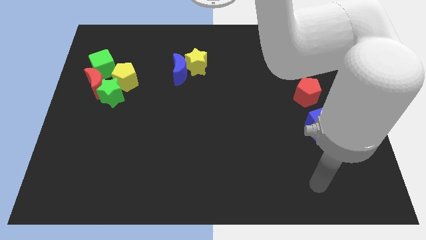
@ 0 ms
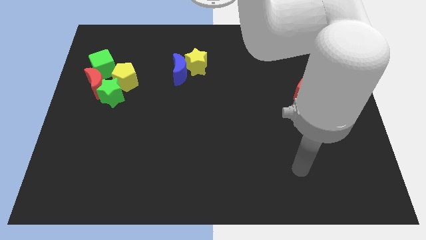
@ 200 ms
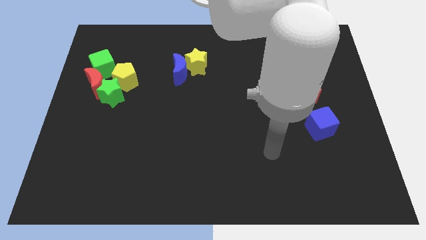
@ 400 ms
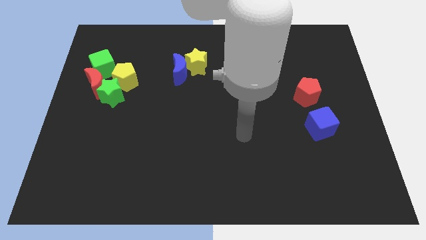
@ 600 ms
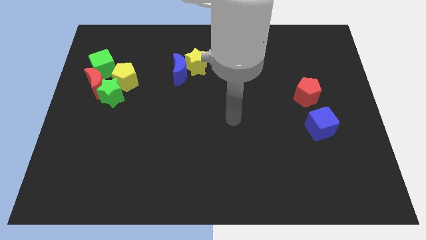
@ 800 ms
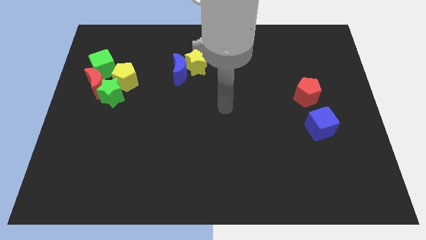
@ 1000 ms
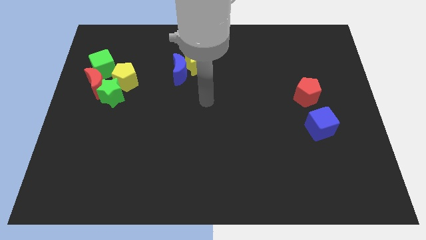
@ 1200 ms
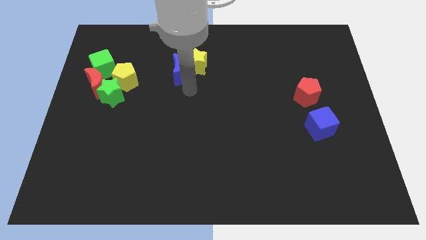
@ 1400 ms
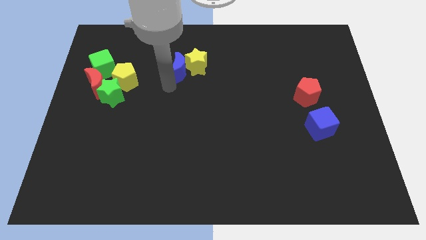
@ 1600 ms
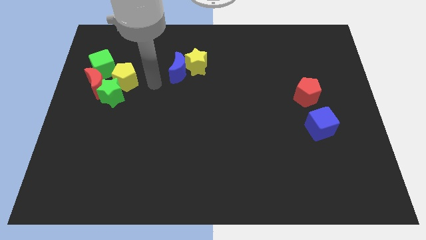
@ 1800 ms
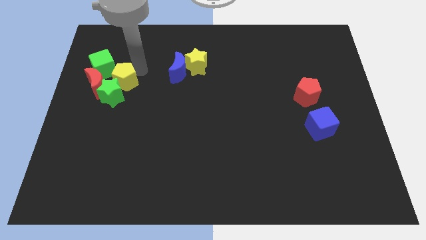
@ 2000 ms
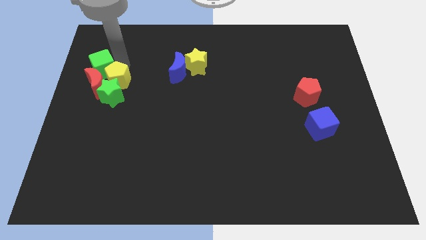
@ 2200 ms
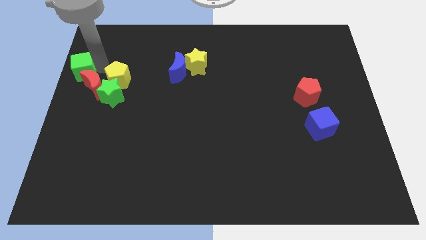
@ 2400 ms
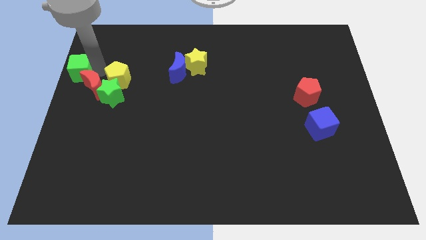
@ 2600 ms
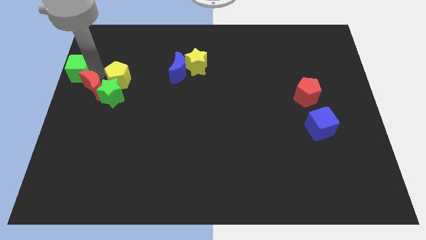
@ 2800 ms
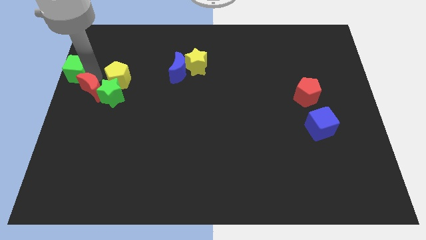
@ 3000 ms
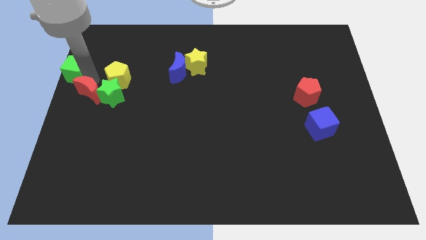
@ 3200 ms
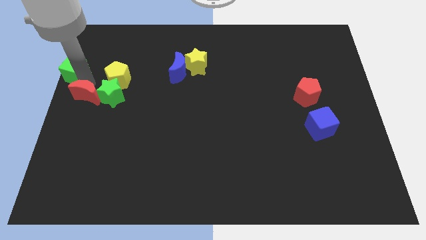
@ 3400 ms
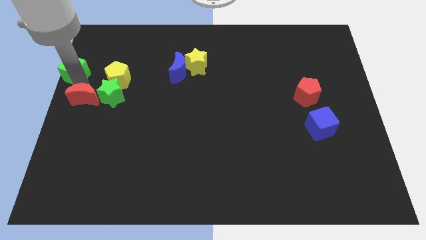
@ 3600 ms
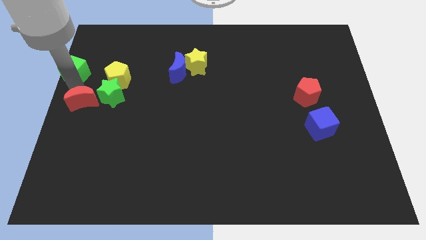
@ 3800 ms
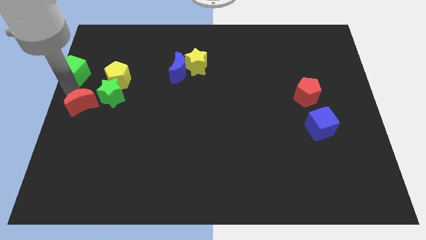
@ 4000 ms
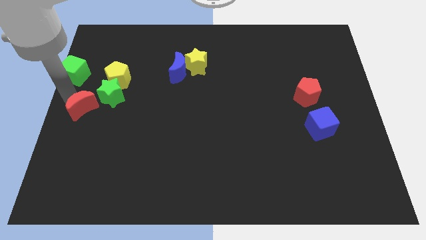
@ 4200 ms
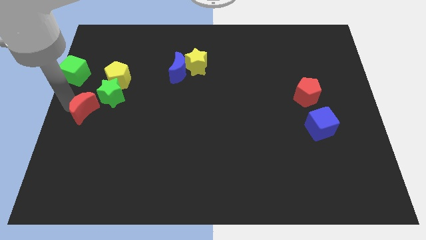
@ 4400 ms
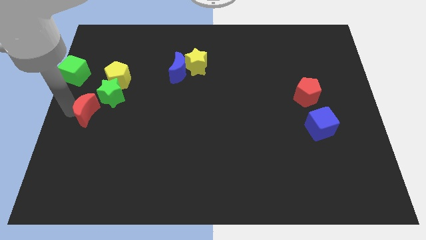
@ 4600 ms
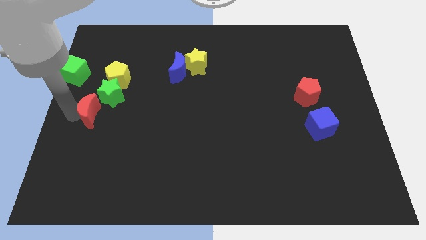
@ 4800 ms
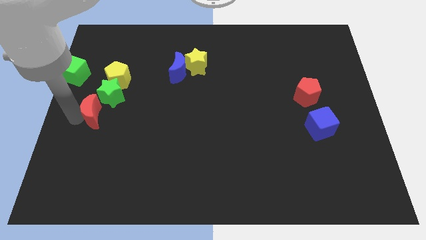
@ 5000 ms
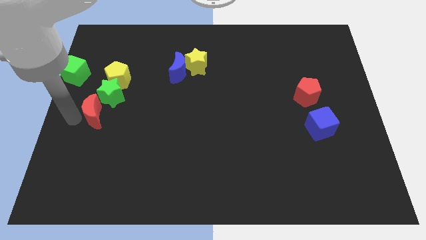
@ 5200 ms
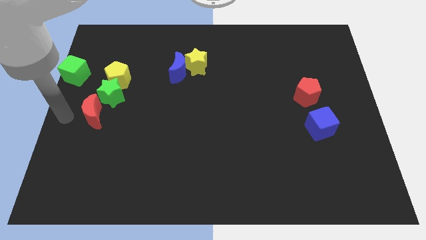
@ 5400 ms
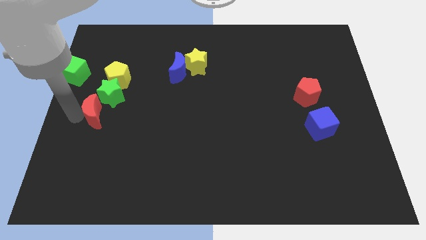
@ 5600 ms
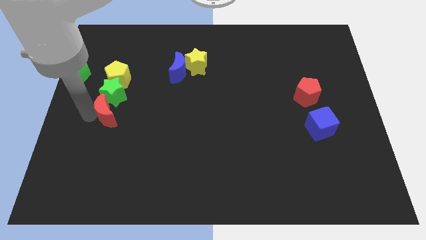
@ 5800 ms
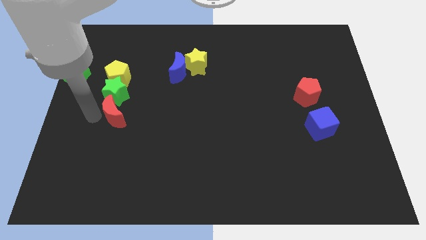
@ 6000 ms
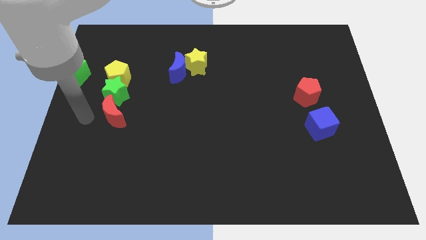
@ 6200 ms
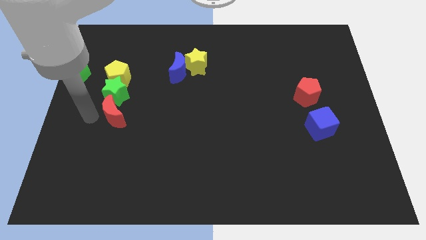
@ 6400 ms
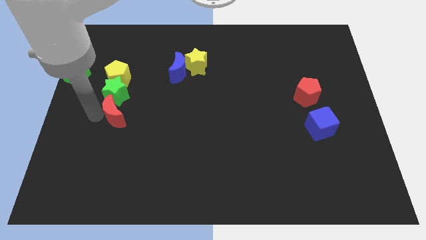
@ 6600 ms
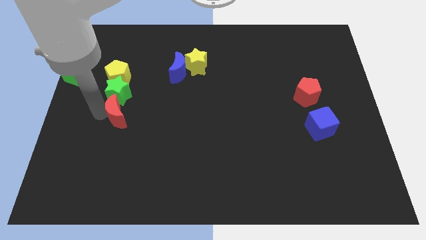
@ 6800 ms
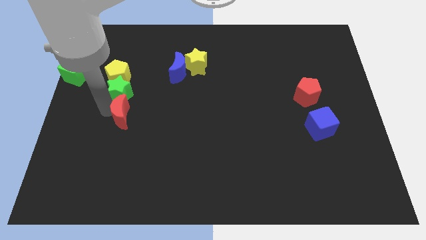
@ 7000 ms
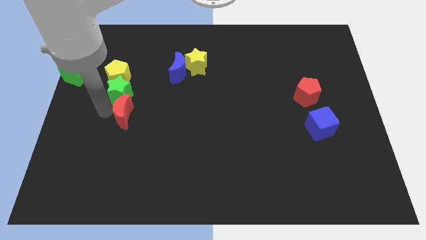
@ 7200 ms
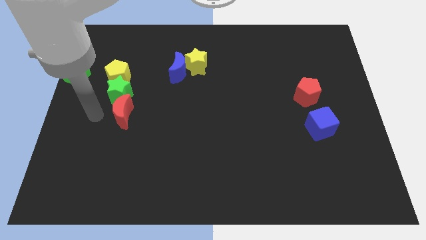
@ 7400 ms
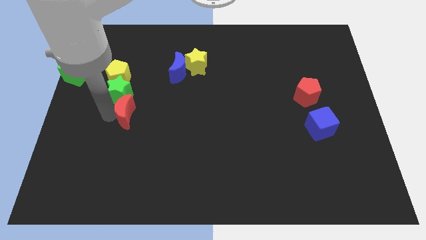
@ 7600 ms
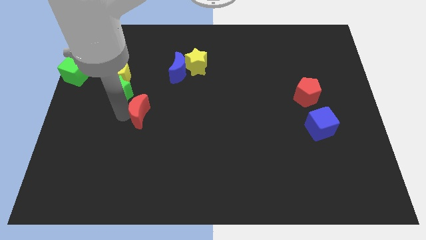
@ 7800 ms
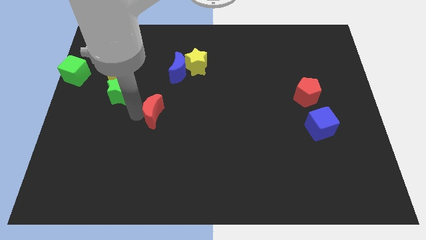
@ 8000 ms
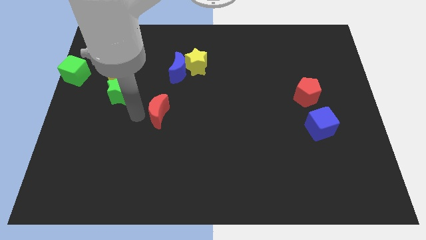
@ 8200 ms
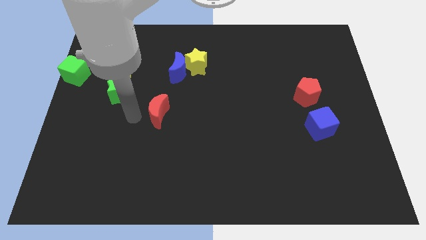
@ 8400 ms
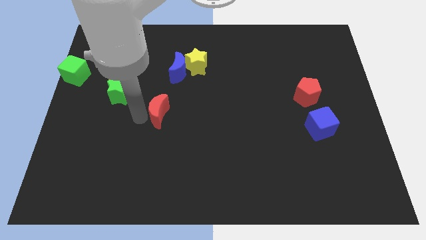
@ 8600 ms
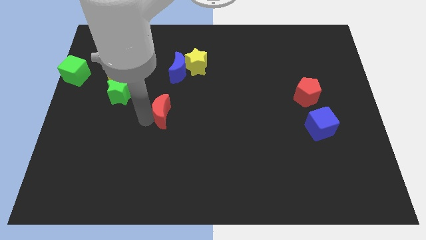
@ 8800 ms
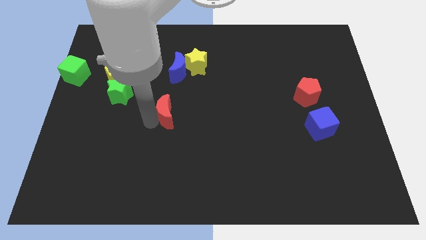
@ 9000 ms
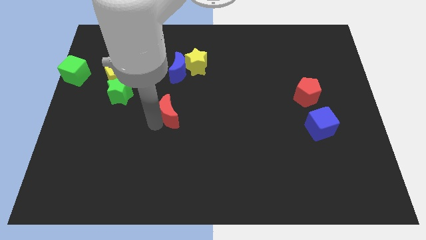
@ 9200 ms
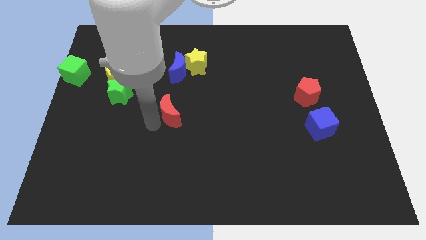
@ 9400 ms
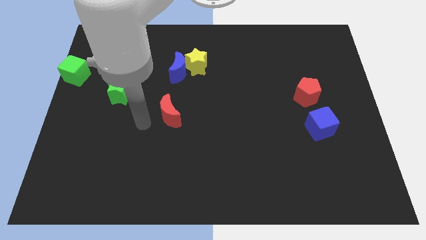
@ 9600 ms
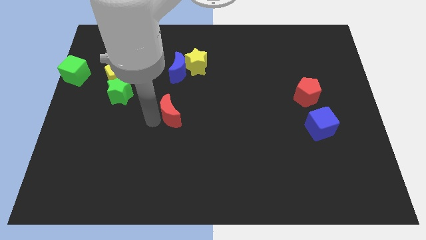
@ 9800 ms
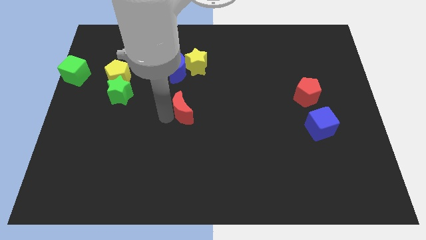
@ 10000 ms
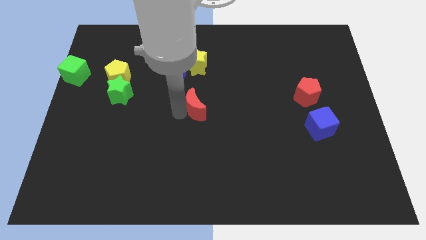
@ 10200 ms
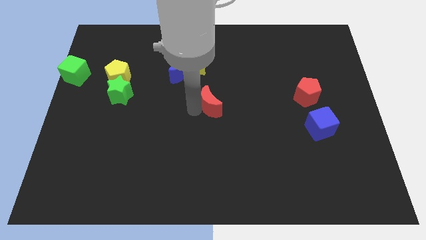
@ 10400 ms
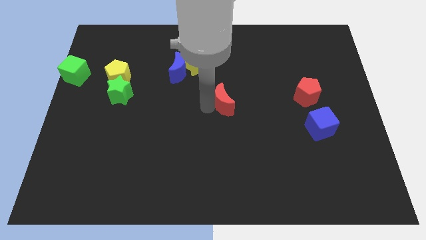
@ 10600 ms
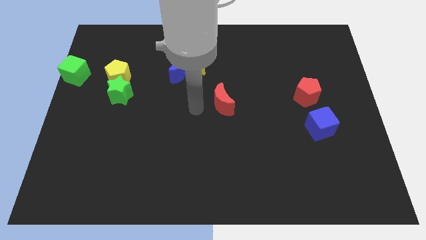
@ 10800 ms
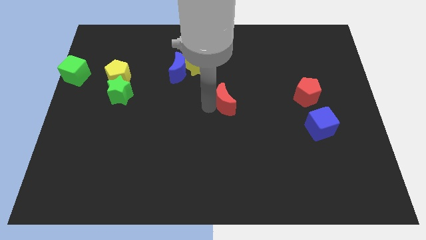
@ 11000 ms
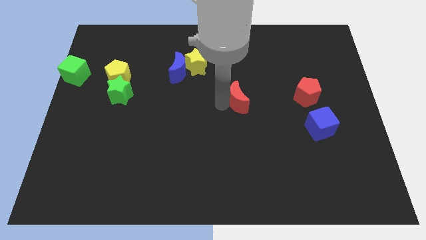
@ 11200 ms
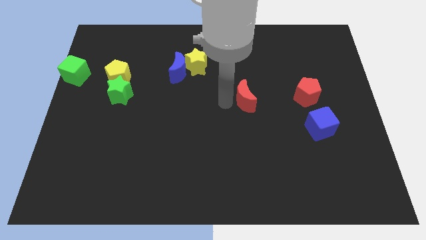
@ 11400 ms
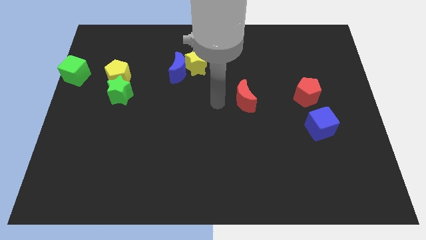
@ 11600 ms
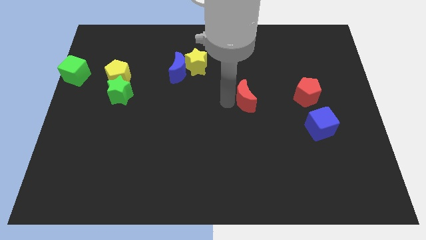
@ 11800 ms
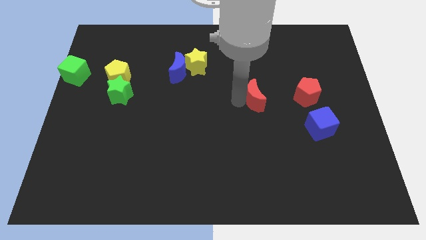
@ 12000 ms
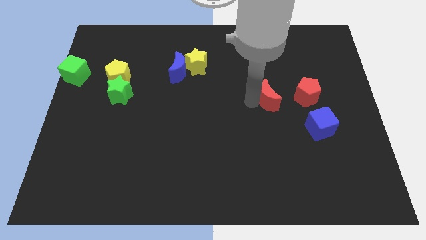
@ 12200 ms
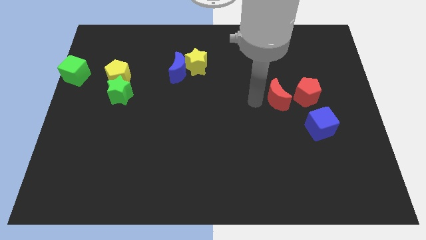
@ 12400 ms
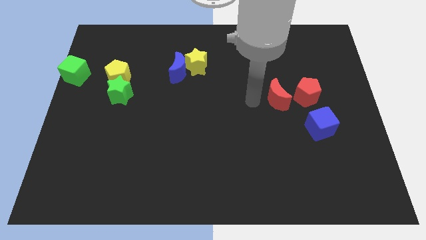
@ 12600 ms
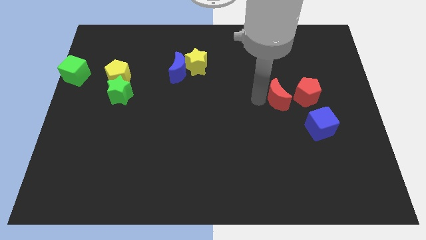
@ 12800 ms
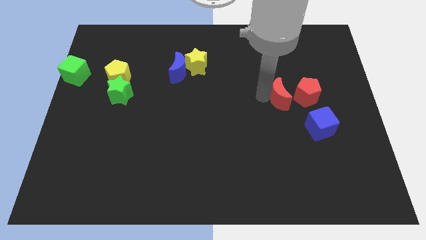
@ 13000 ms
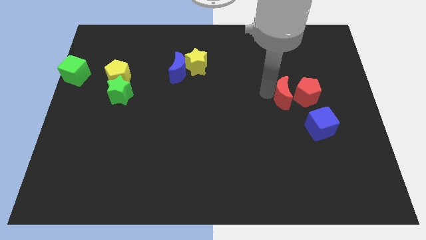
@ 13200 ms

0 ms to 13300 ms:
move the red moon to the red pentagon

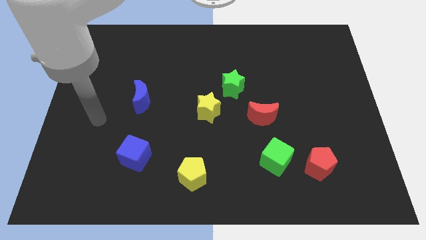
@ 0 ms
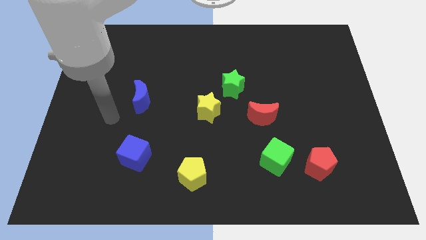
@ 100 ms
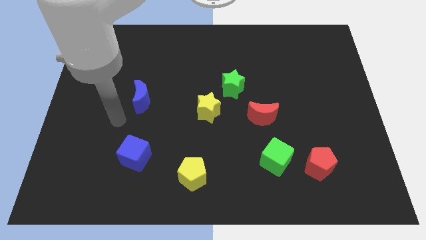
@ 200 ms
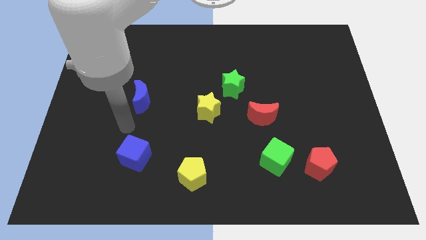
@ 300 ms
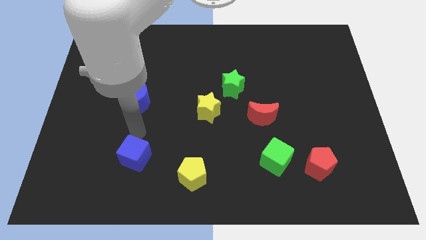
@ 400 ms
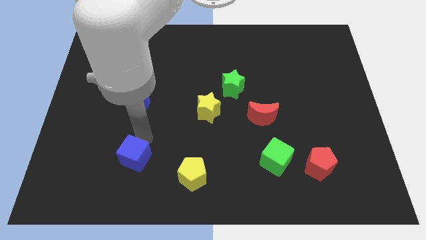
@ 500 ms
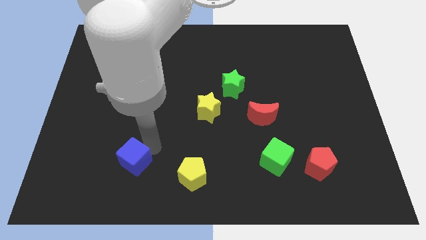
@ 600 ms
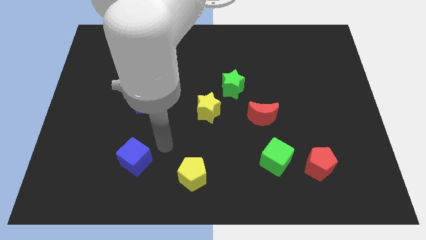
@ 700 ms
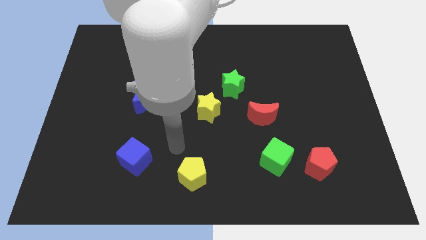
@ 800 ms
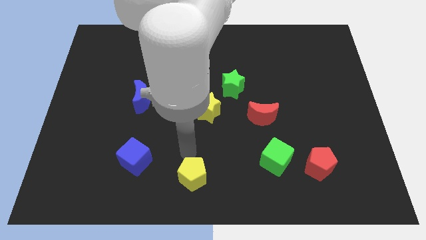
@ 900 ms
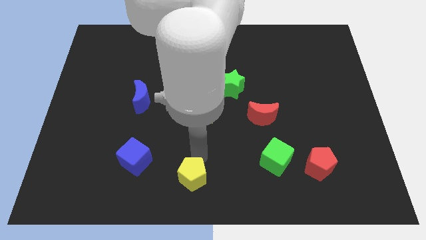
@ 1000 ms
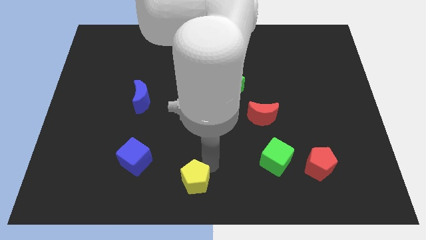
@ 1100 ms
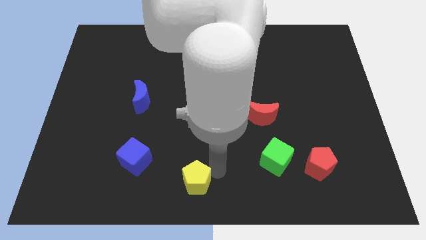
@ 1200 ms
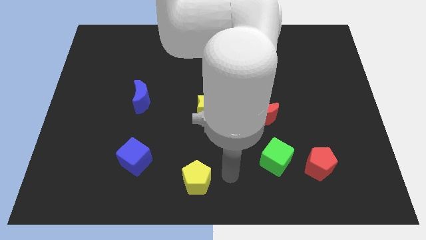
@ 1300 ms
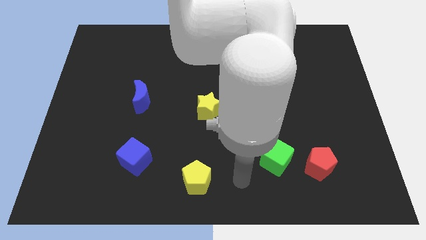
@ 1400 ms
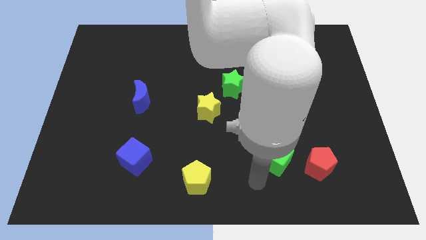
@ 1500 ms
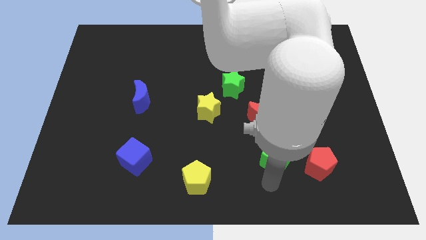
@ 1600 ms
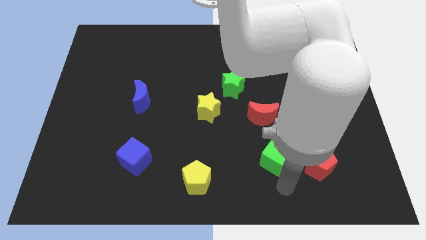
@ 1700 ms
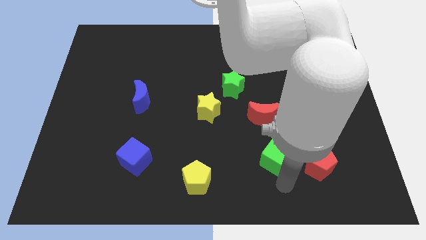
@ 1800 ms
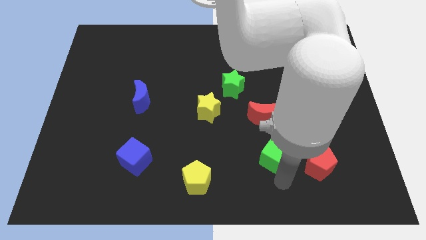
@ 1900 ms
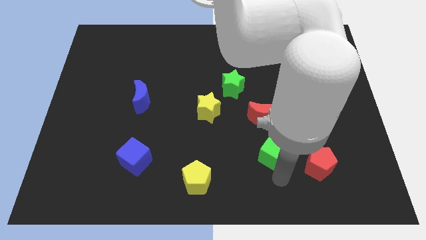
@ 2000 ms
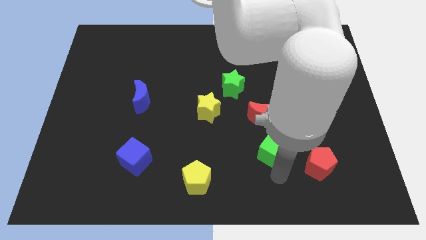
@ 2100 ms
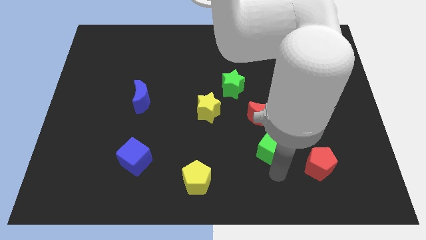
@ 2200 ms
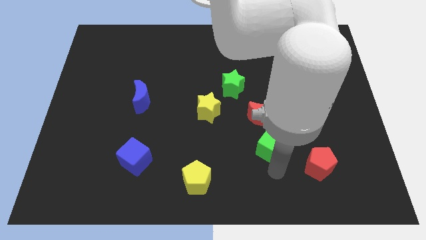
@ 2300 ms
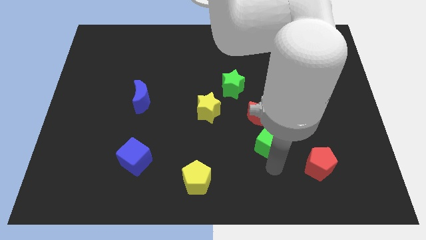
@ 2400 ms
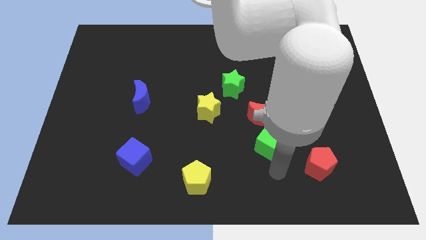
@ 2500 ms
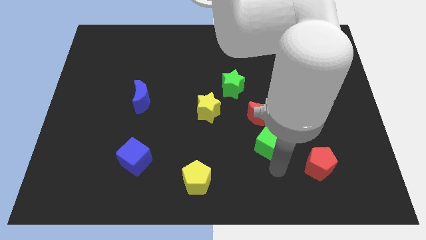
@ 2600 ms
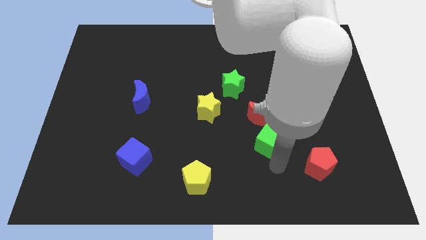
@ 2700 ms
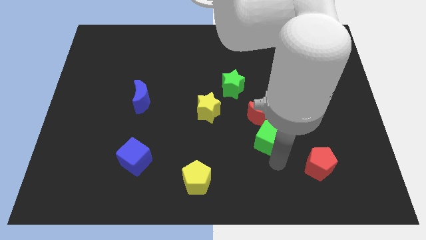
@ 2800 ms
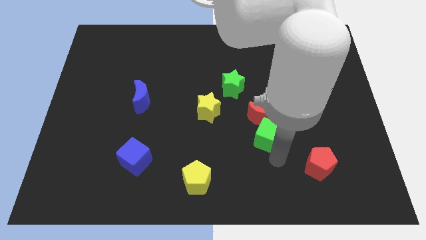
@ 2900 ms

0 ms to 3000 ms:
push the green cube close to the red moon
